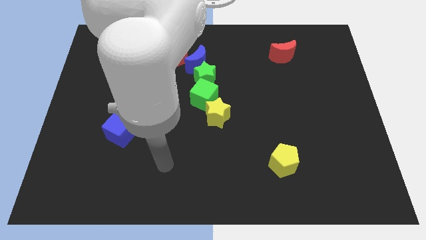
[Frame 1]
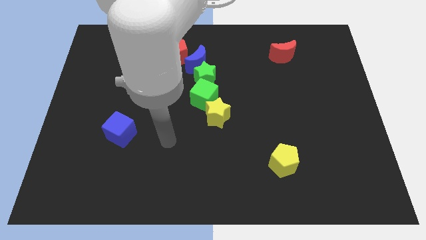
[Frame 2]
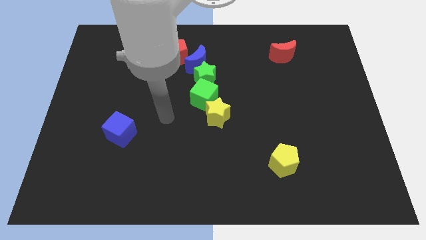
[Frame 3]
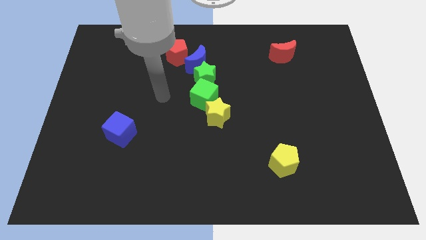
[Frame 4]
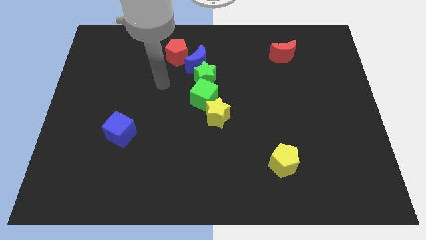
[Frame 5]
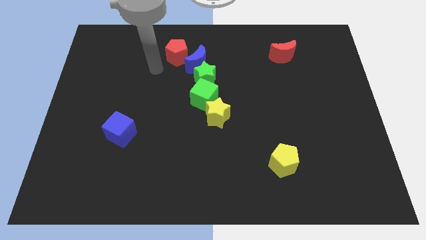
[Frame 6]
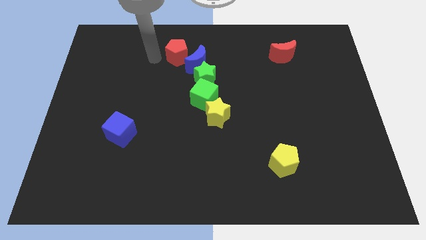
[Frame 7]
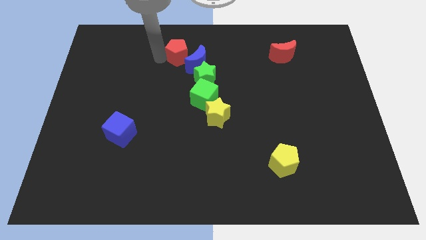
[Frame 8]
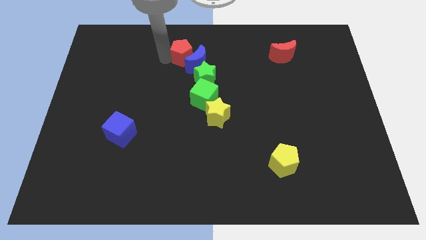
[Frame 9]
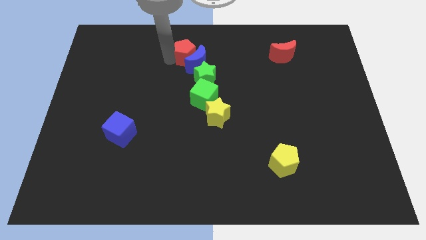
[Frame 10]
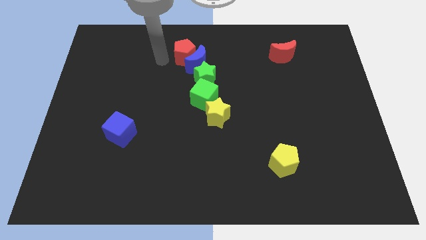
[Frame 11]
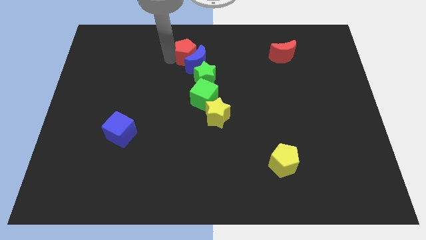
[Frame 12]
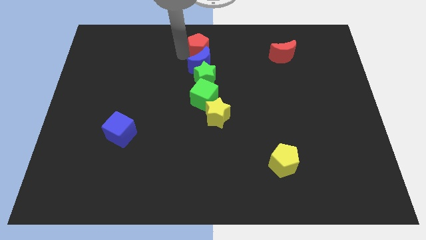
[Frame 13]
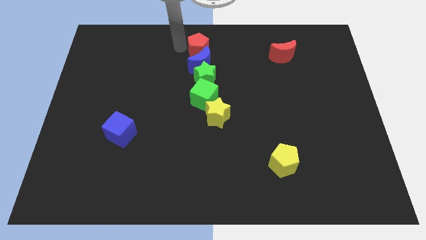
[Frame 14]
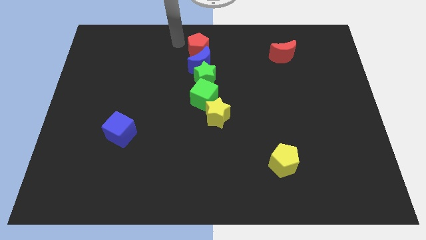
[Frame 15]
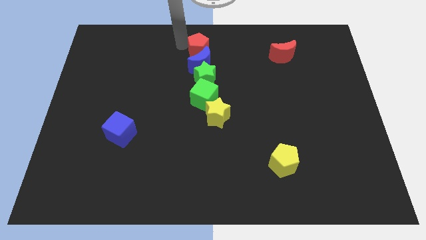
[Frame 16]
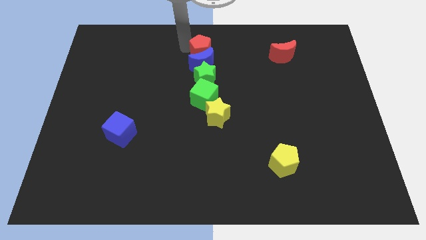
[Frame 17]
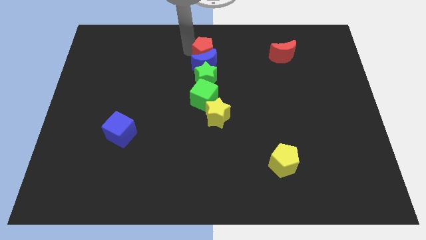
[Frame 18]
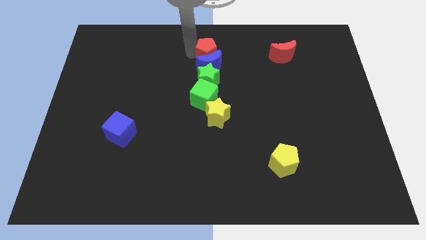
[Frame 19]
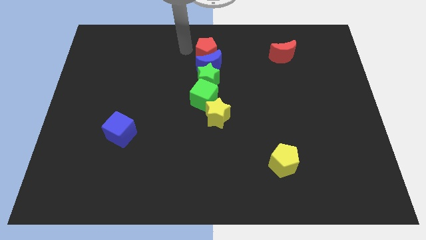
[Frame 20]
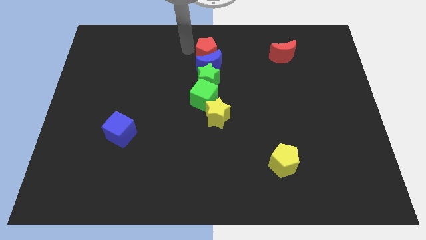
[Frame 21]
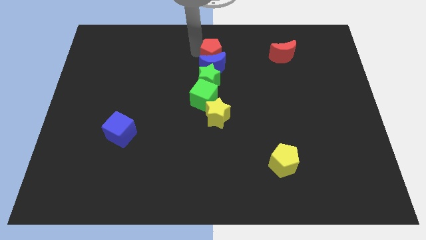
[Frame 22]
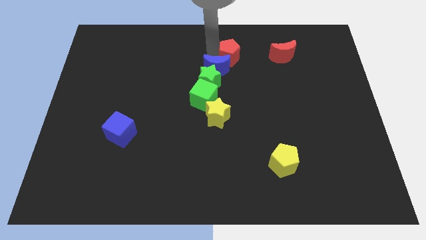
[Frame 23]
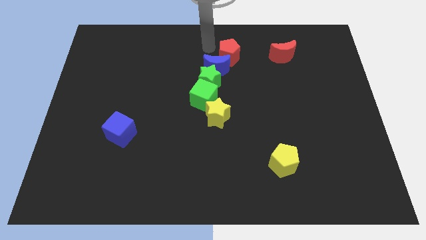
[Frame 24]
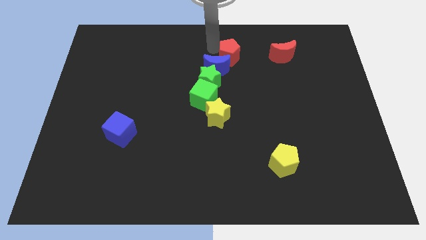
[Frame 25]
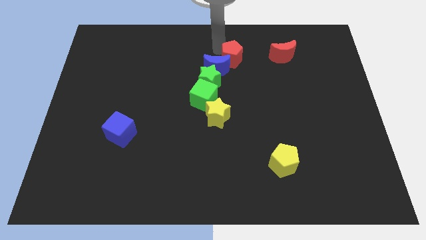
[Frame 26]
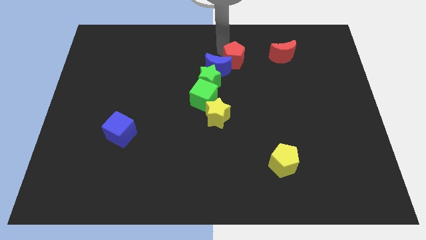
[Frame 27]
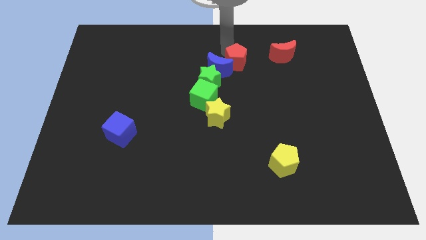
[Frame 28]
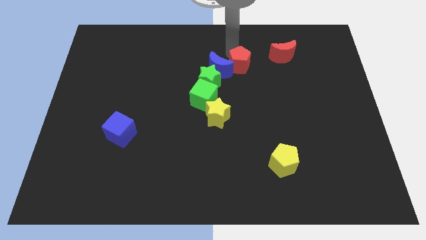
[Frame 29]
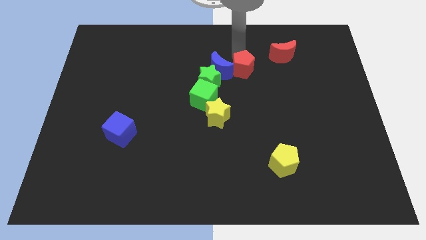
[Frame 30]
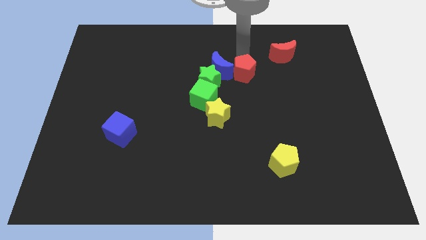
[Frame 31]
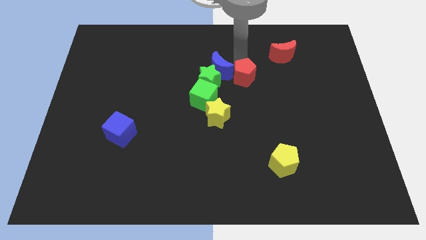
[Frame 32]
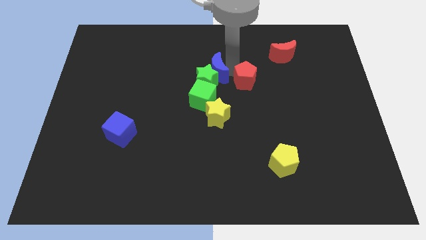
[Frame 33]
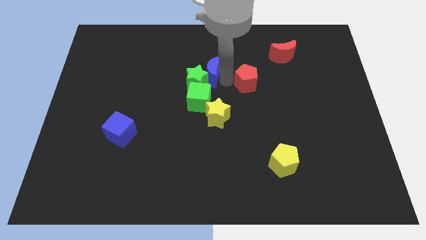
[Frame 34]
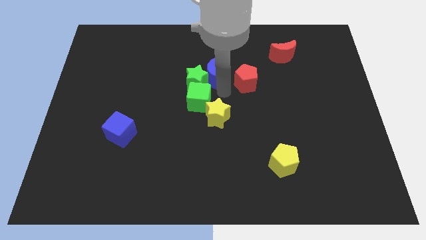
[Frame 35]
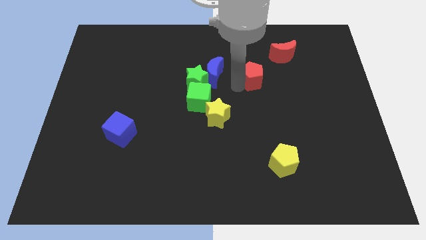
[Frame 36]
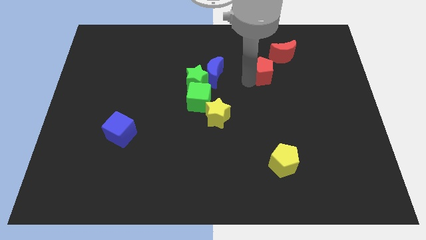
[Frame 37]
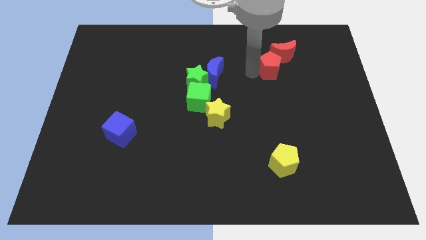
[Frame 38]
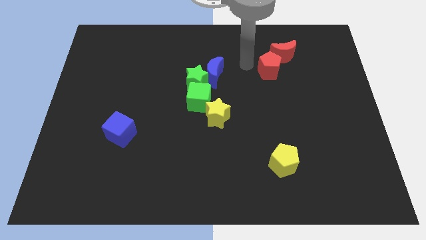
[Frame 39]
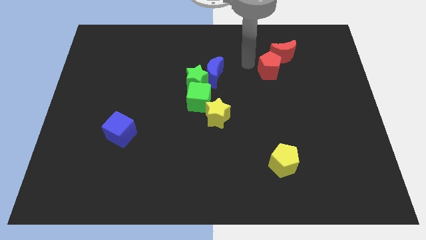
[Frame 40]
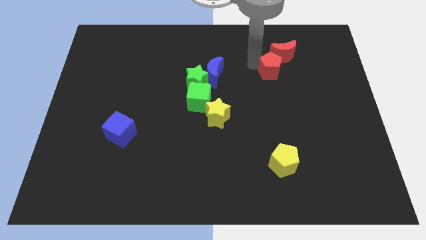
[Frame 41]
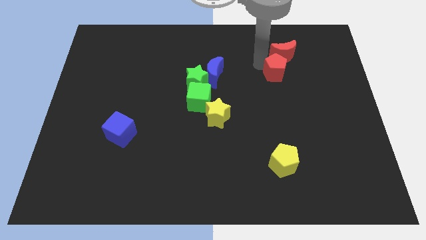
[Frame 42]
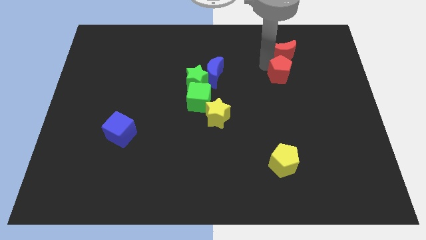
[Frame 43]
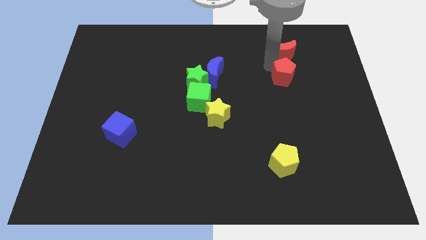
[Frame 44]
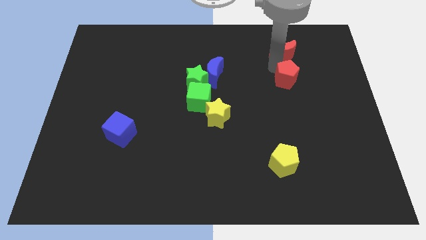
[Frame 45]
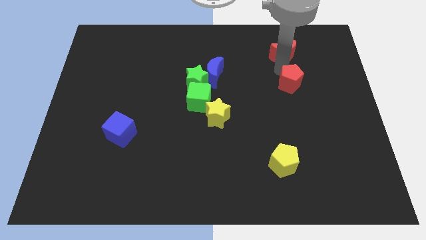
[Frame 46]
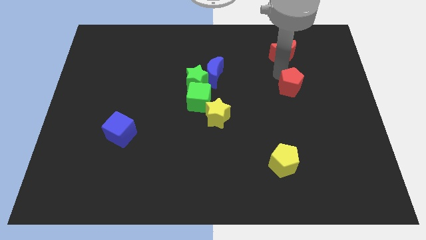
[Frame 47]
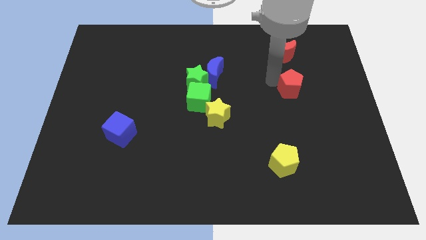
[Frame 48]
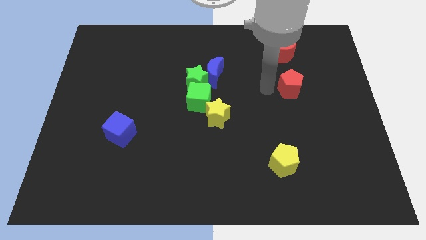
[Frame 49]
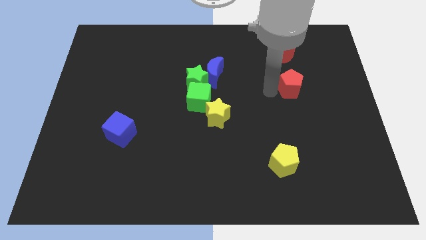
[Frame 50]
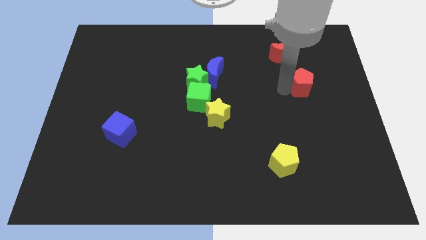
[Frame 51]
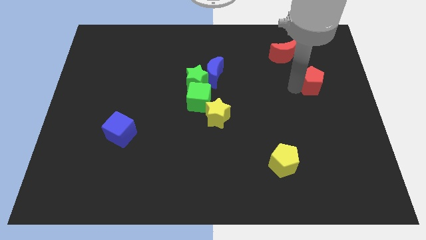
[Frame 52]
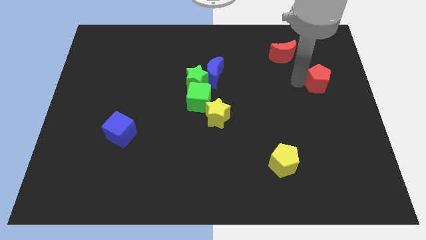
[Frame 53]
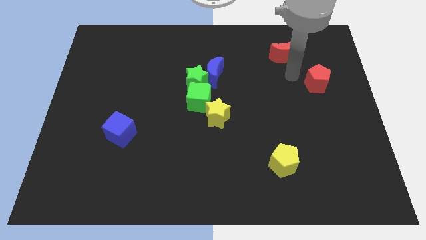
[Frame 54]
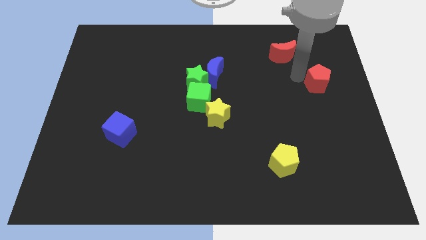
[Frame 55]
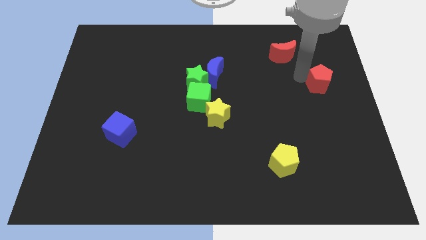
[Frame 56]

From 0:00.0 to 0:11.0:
put the red pentagon to the right side

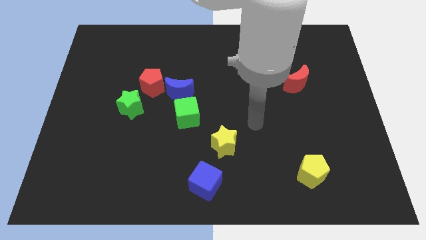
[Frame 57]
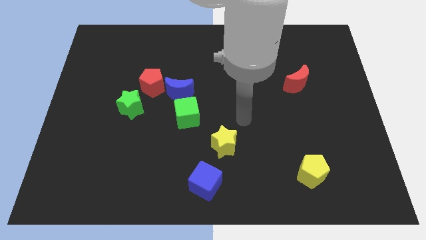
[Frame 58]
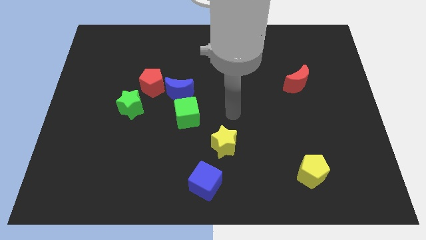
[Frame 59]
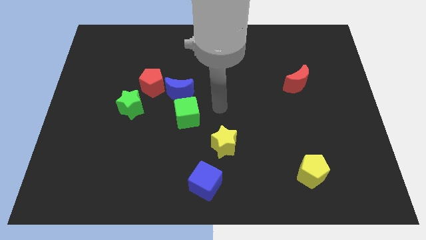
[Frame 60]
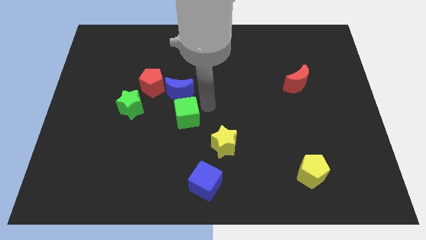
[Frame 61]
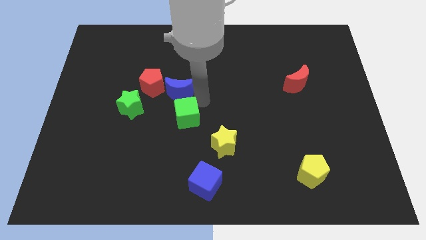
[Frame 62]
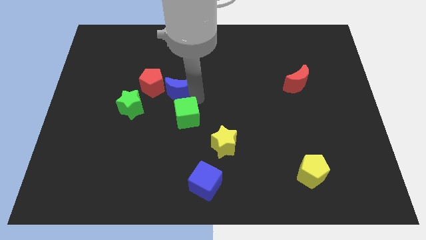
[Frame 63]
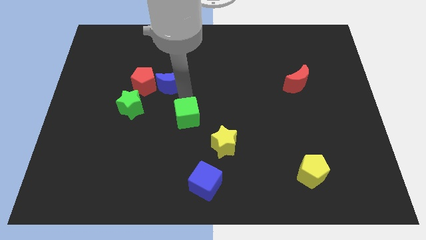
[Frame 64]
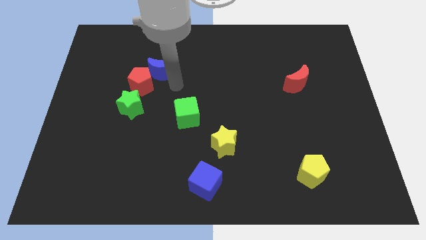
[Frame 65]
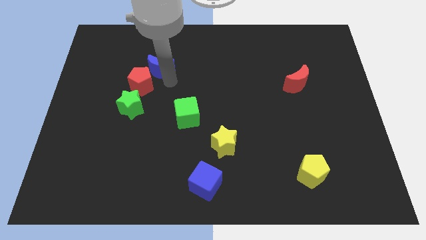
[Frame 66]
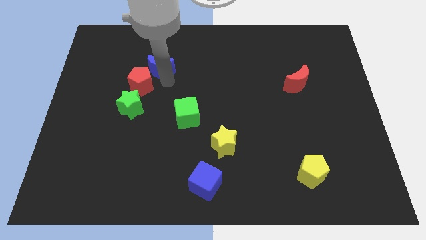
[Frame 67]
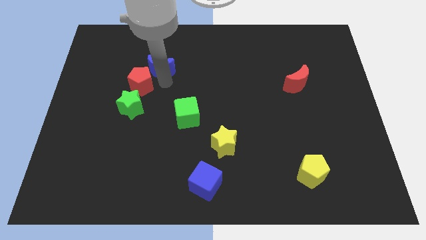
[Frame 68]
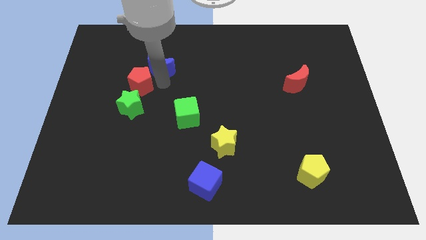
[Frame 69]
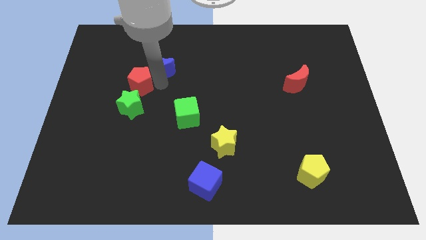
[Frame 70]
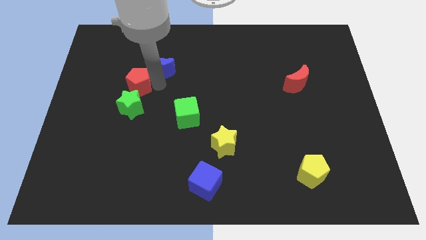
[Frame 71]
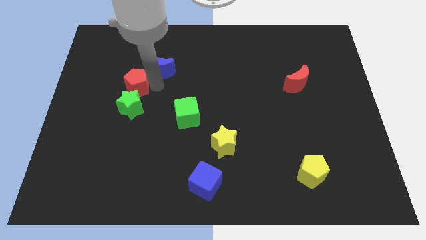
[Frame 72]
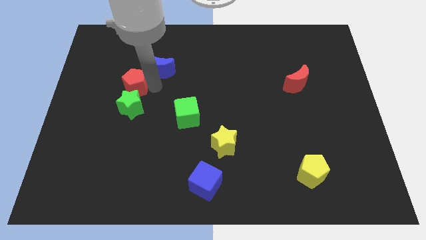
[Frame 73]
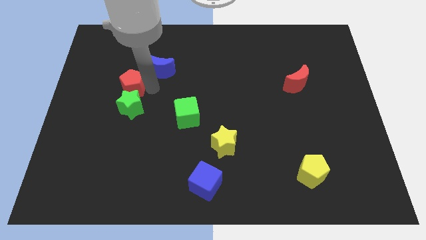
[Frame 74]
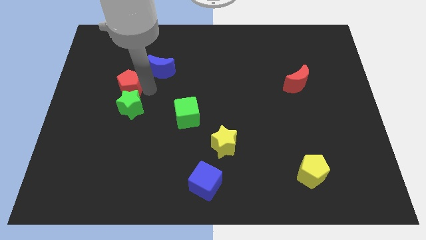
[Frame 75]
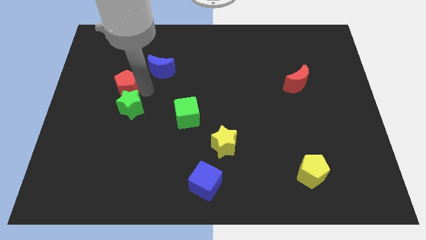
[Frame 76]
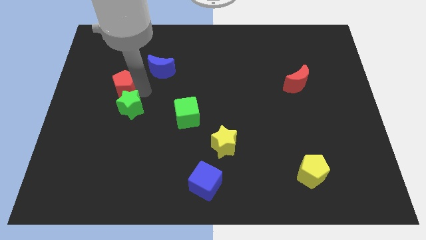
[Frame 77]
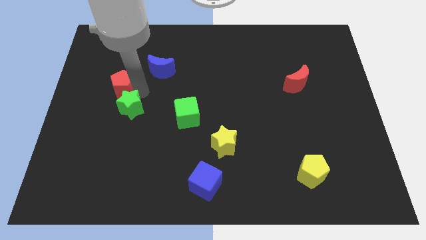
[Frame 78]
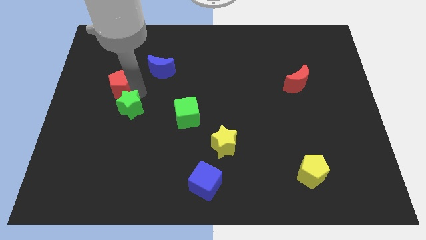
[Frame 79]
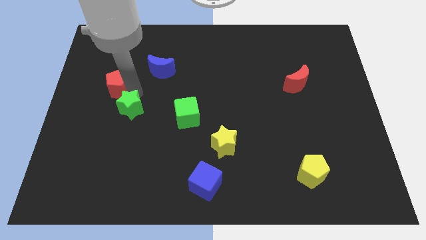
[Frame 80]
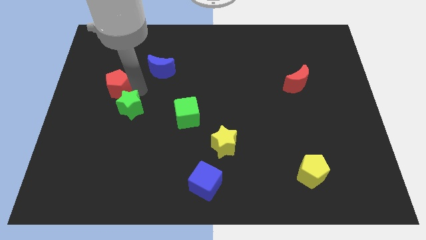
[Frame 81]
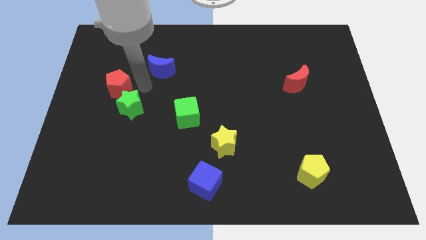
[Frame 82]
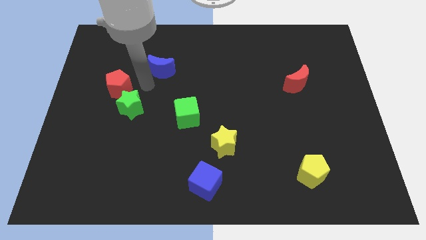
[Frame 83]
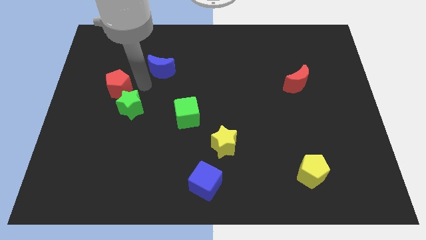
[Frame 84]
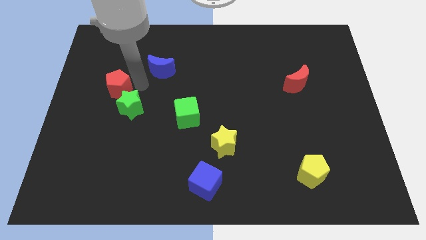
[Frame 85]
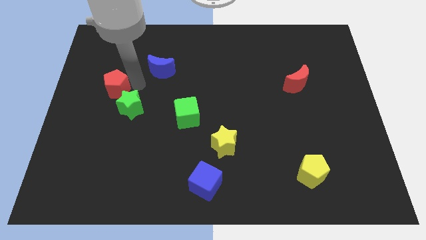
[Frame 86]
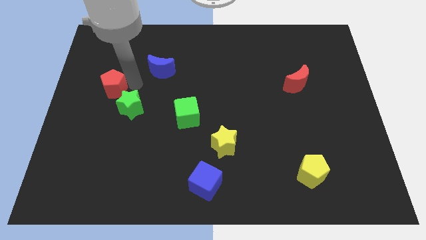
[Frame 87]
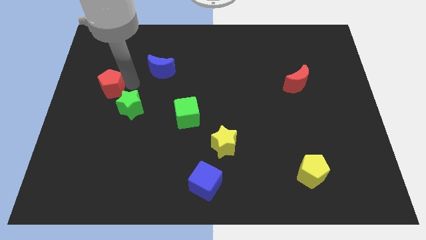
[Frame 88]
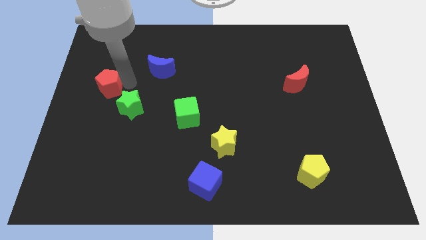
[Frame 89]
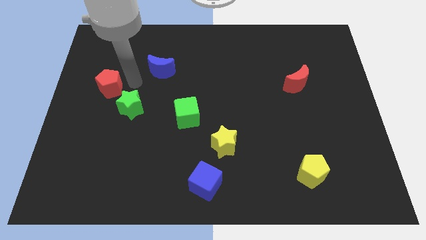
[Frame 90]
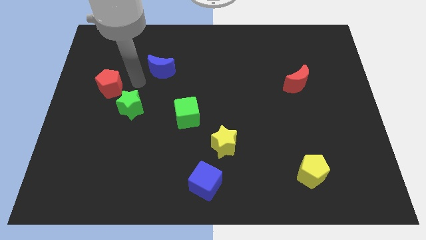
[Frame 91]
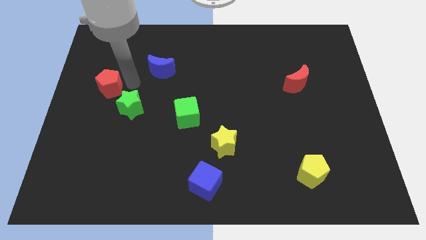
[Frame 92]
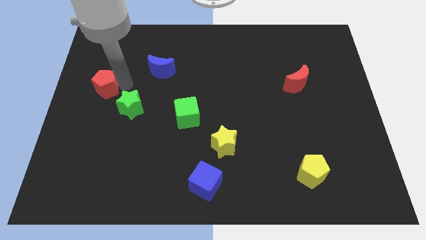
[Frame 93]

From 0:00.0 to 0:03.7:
move the red pentagon to the center left
